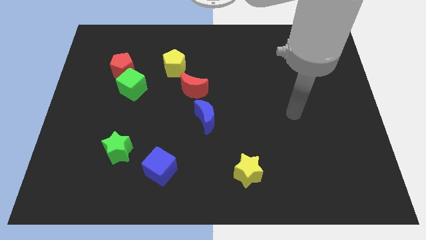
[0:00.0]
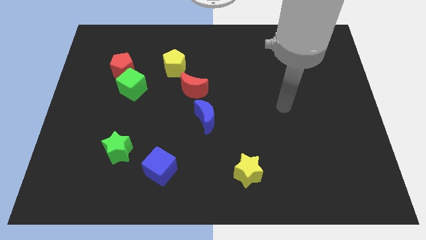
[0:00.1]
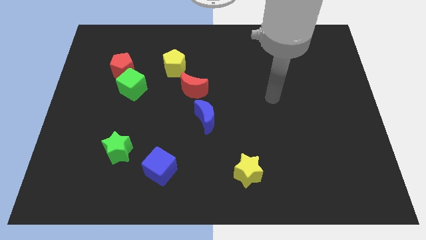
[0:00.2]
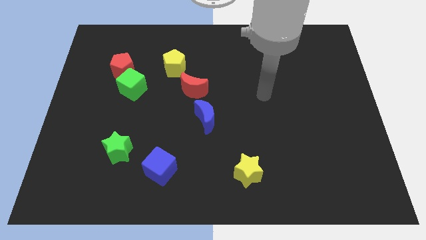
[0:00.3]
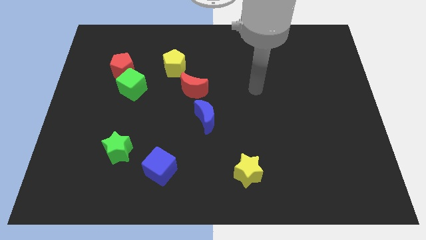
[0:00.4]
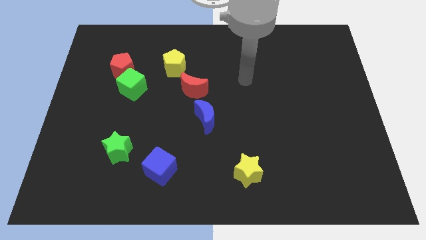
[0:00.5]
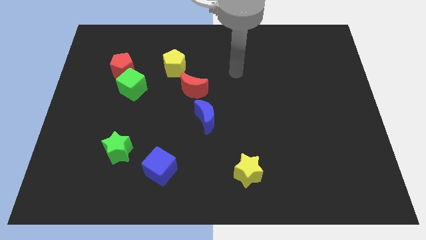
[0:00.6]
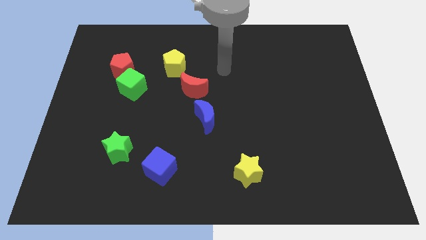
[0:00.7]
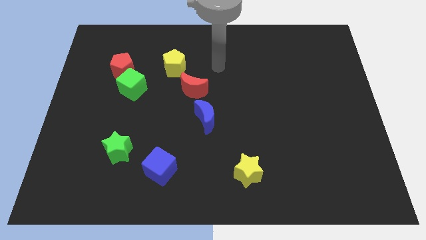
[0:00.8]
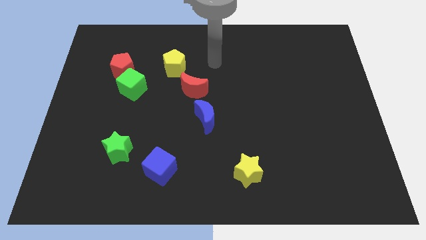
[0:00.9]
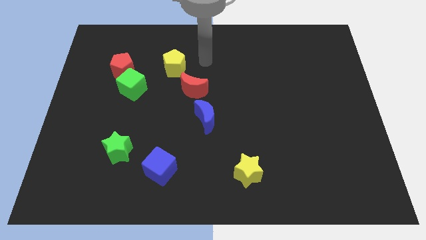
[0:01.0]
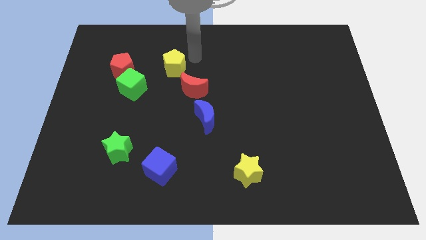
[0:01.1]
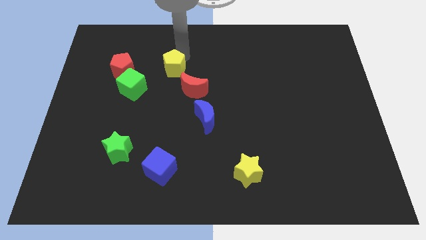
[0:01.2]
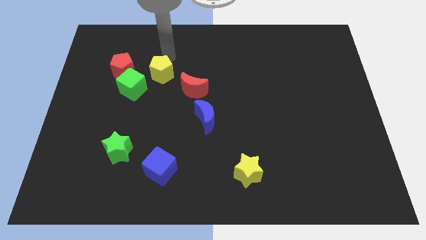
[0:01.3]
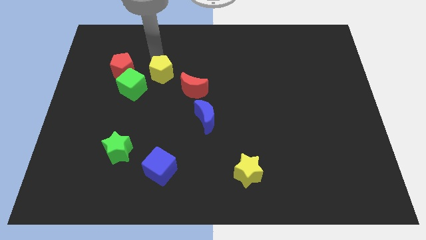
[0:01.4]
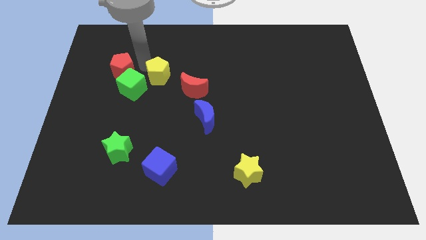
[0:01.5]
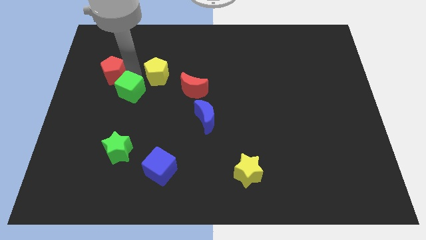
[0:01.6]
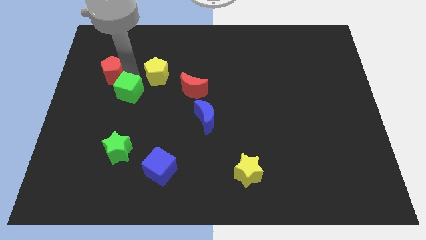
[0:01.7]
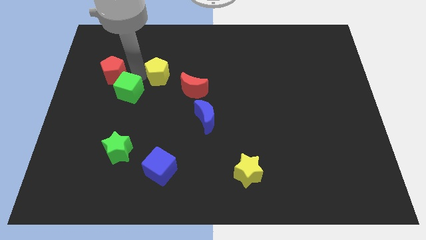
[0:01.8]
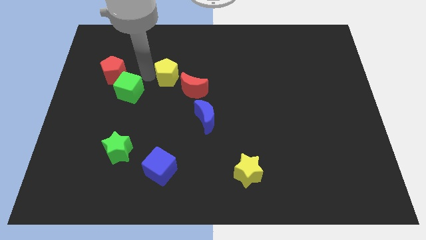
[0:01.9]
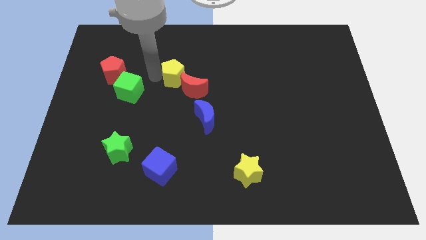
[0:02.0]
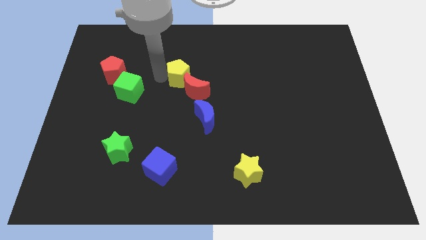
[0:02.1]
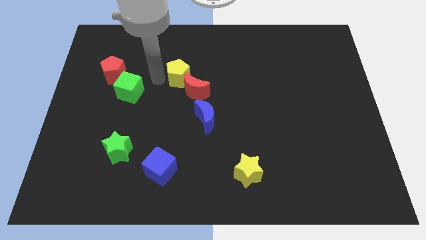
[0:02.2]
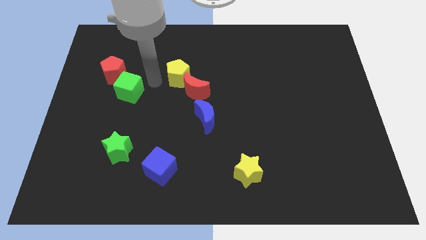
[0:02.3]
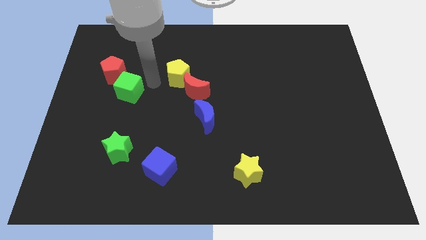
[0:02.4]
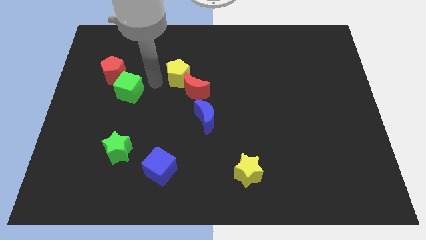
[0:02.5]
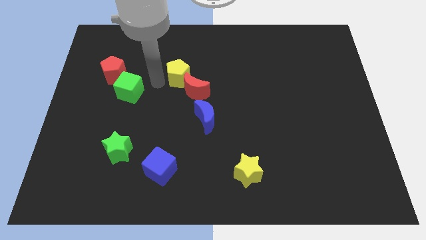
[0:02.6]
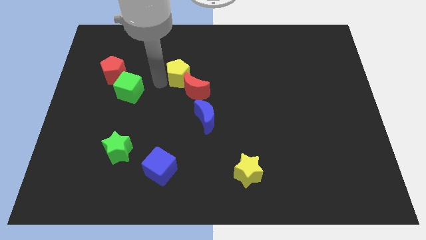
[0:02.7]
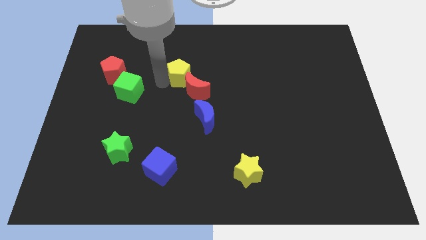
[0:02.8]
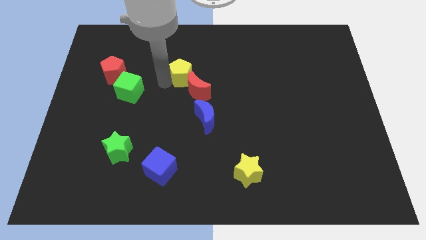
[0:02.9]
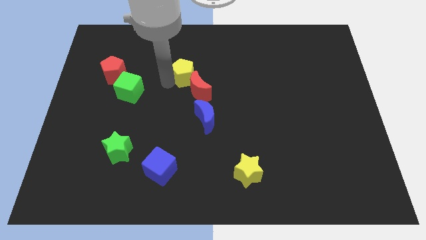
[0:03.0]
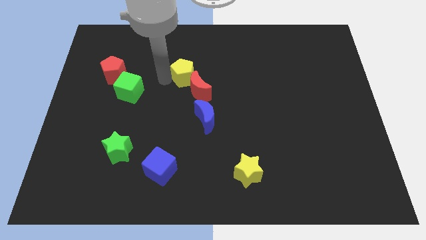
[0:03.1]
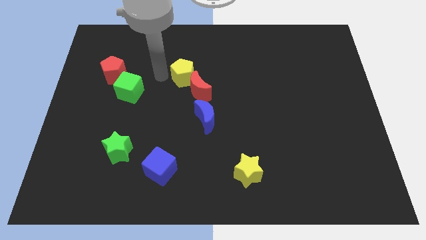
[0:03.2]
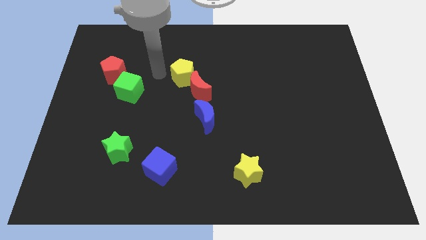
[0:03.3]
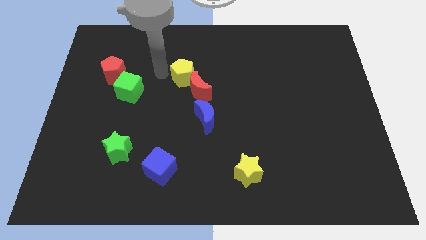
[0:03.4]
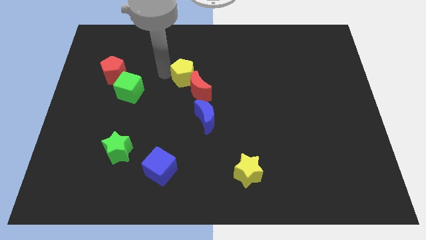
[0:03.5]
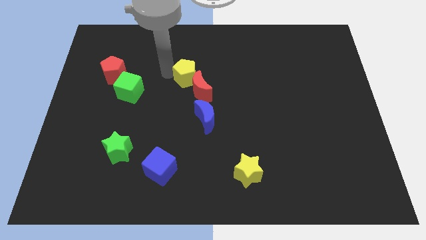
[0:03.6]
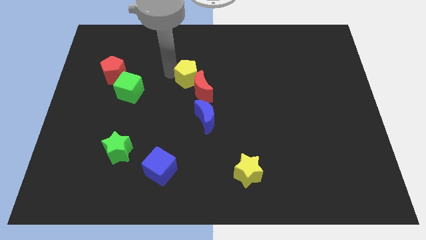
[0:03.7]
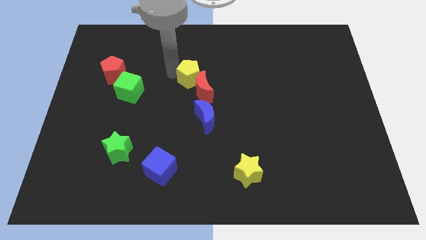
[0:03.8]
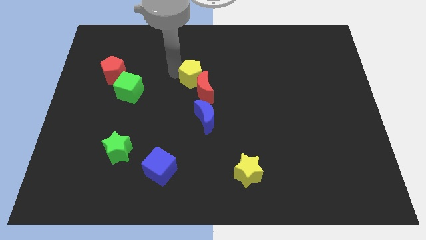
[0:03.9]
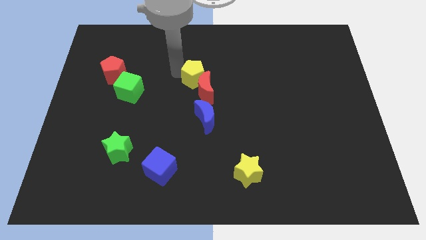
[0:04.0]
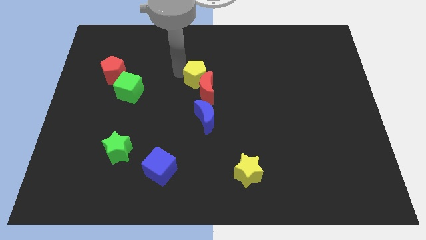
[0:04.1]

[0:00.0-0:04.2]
move the yellow pentagon downwards and to the right diagonally a little

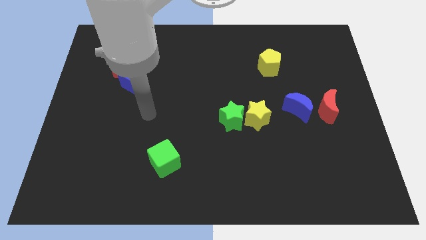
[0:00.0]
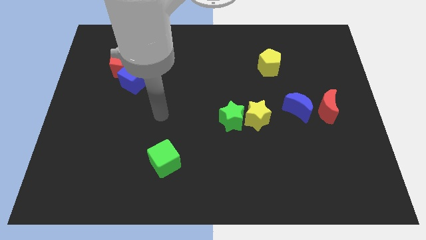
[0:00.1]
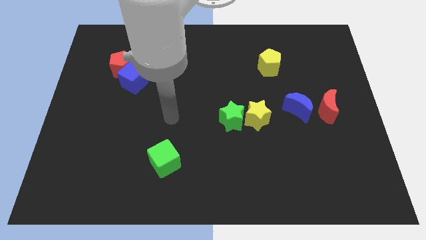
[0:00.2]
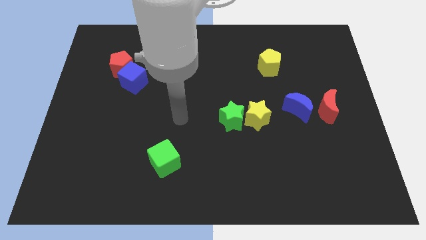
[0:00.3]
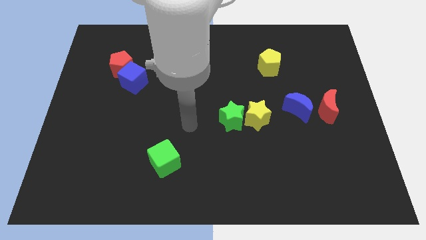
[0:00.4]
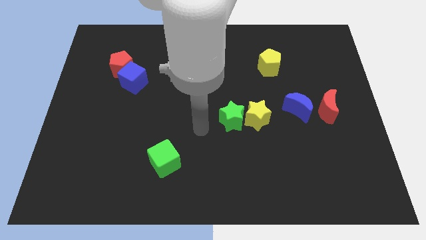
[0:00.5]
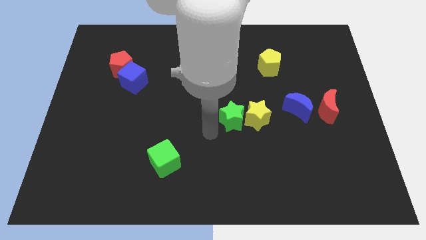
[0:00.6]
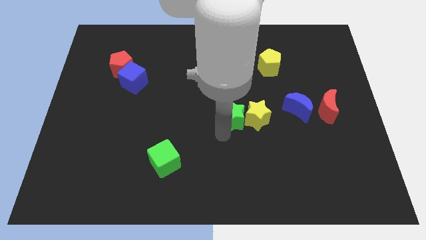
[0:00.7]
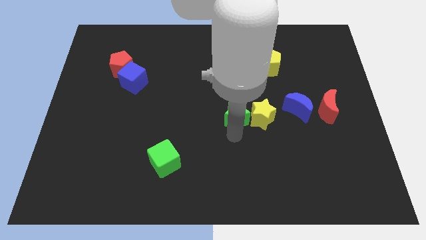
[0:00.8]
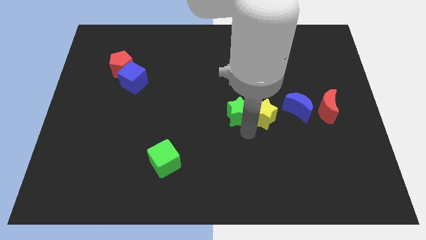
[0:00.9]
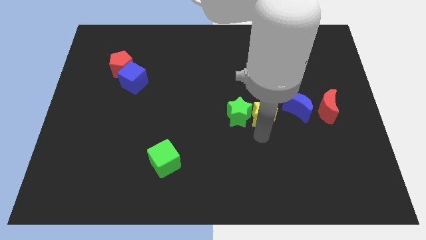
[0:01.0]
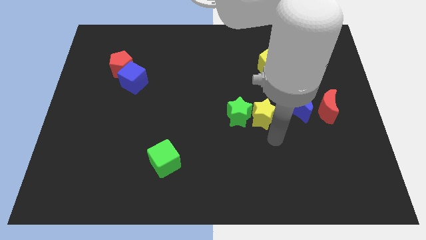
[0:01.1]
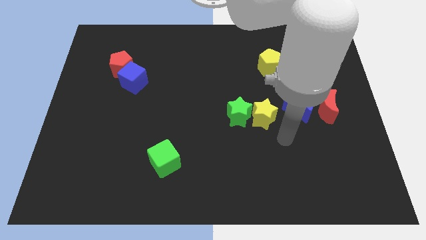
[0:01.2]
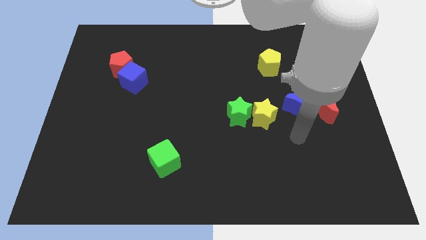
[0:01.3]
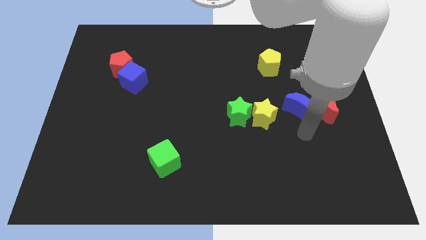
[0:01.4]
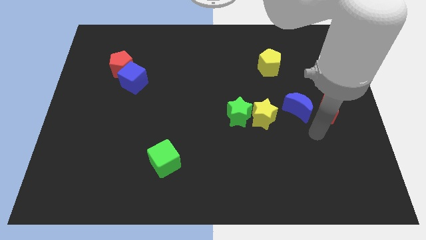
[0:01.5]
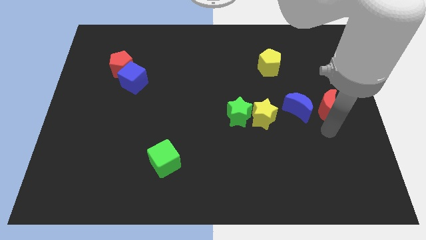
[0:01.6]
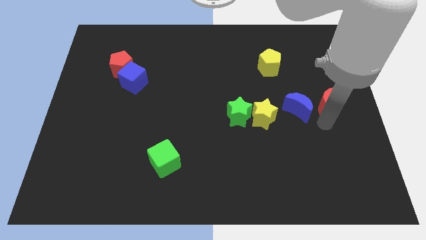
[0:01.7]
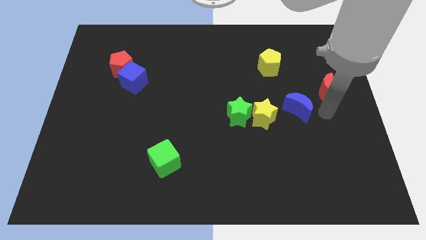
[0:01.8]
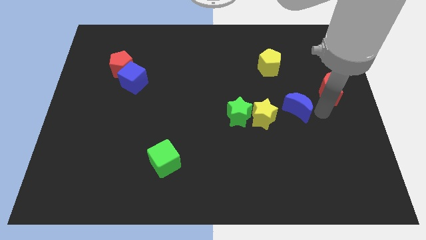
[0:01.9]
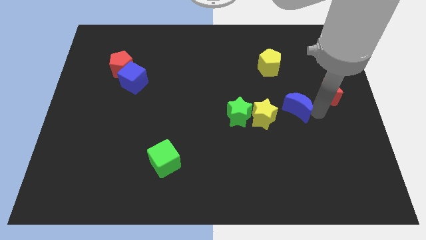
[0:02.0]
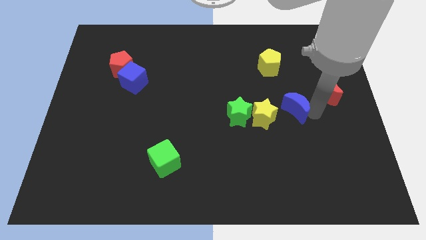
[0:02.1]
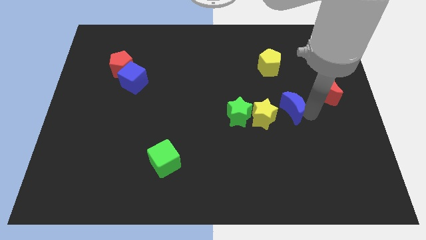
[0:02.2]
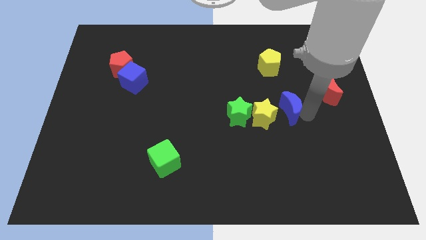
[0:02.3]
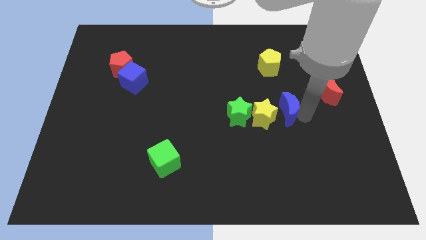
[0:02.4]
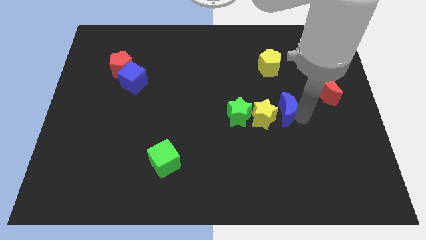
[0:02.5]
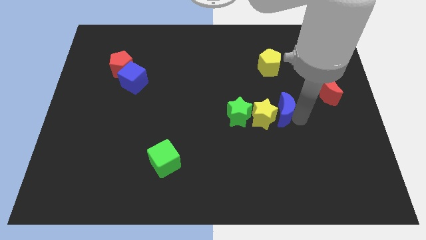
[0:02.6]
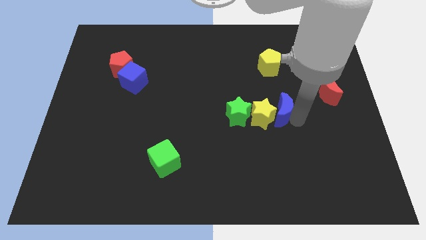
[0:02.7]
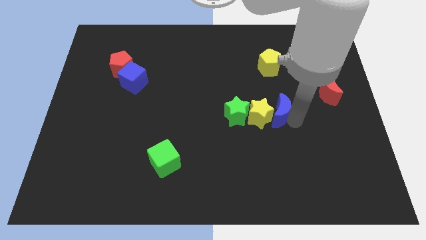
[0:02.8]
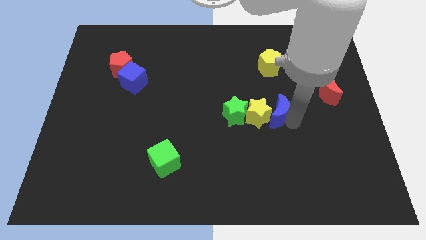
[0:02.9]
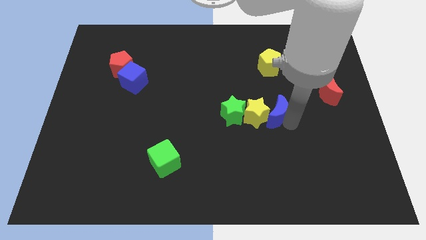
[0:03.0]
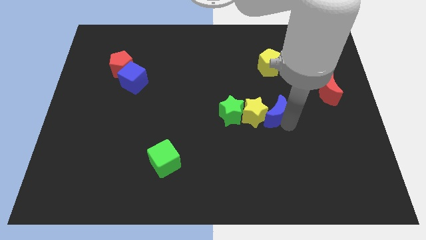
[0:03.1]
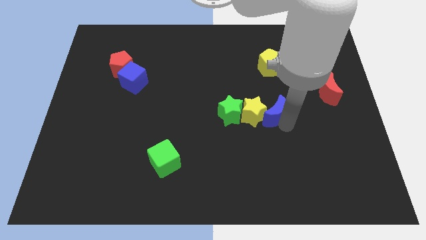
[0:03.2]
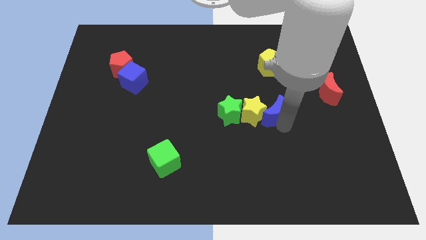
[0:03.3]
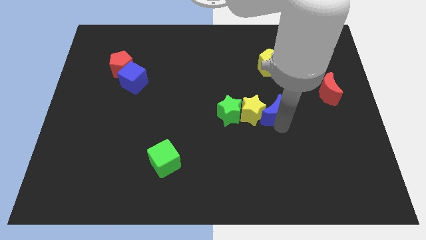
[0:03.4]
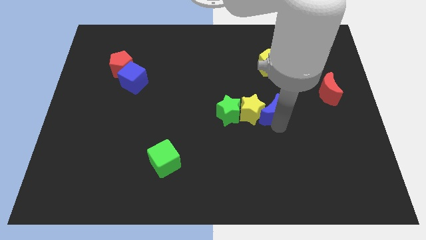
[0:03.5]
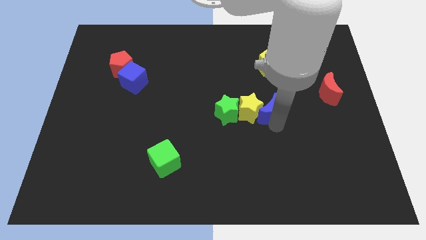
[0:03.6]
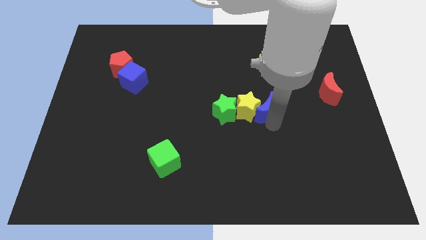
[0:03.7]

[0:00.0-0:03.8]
move the blue moon to the left slightly
